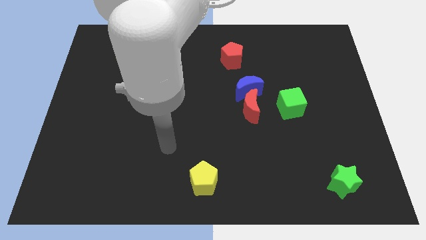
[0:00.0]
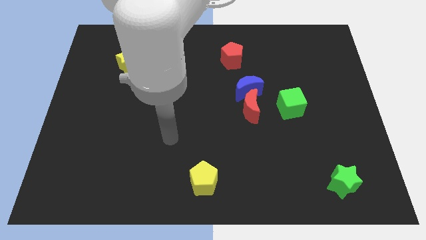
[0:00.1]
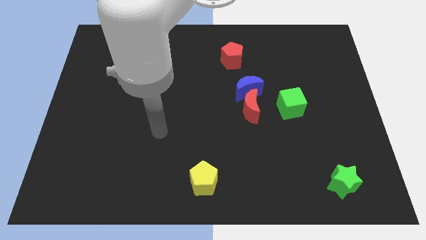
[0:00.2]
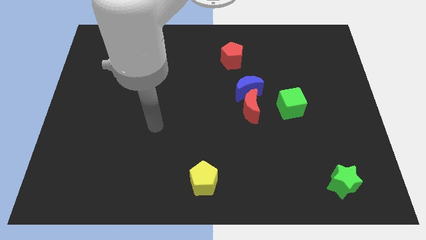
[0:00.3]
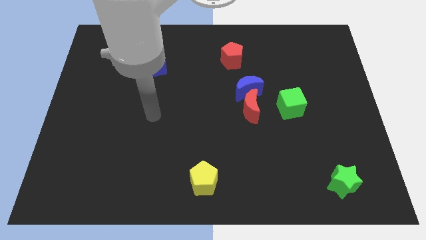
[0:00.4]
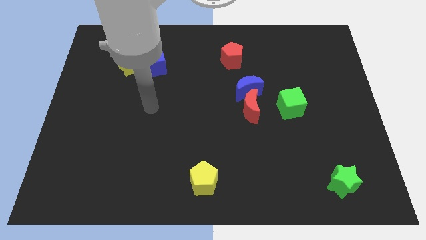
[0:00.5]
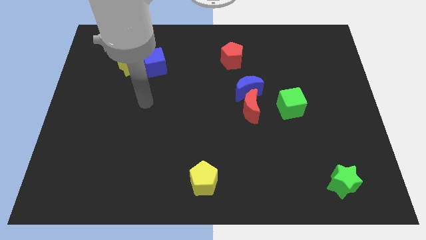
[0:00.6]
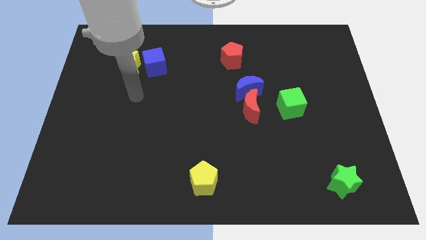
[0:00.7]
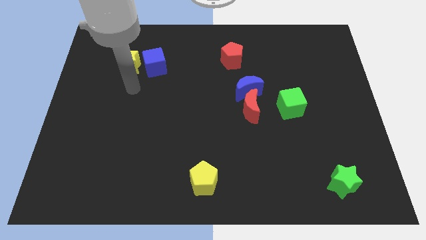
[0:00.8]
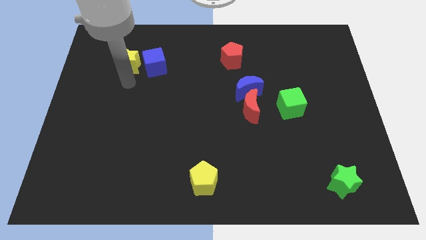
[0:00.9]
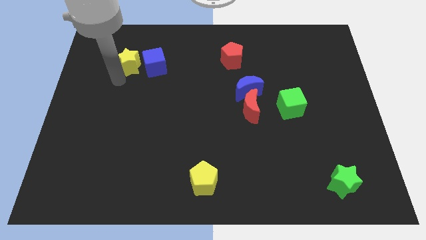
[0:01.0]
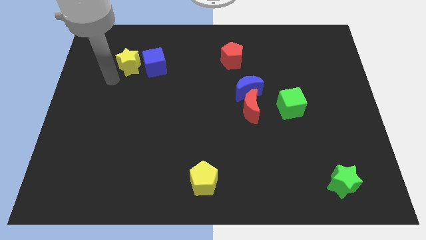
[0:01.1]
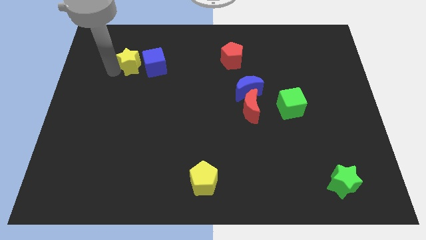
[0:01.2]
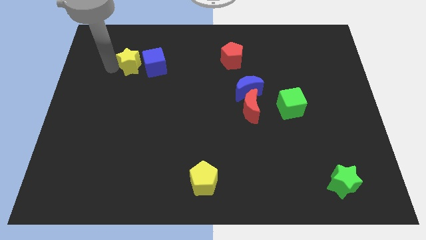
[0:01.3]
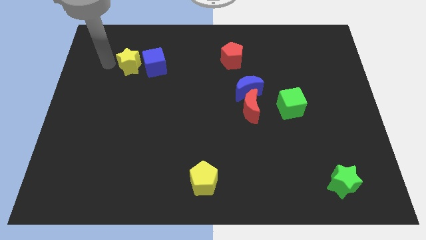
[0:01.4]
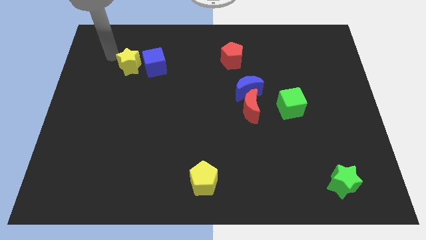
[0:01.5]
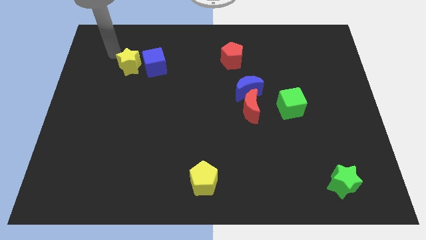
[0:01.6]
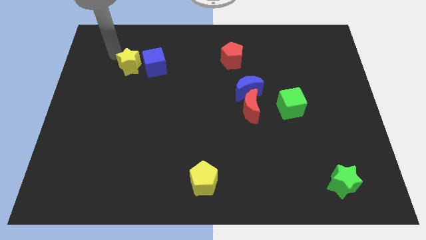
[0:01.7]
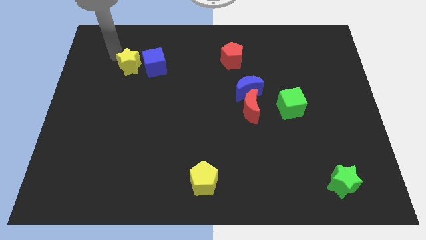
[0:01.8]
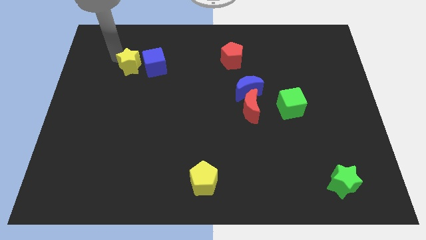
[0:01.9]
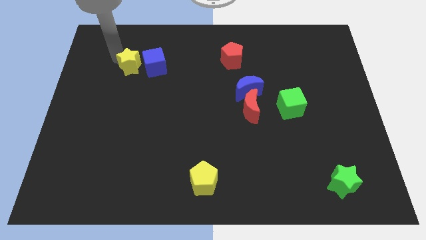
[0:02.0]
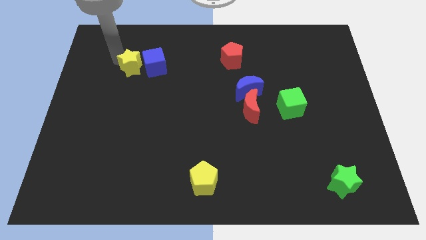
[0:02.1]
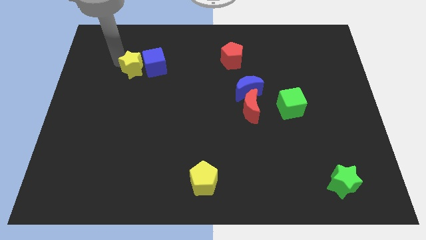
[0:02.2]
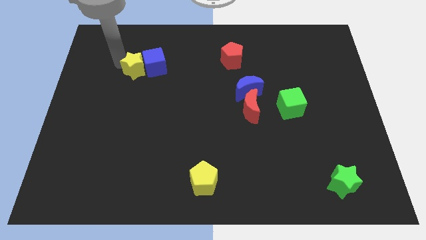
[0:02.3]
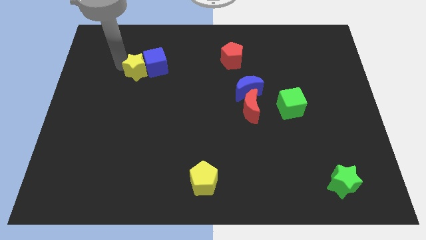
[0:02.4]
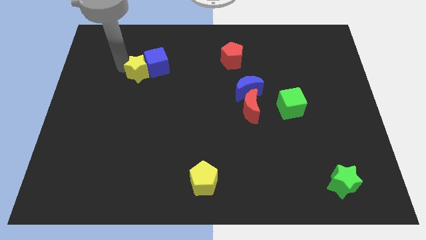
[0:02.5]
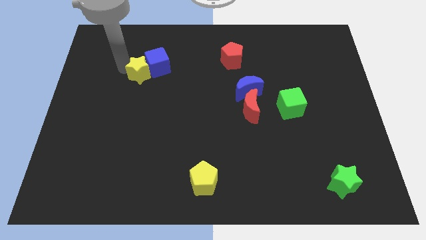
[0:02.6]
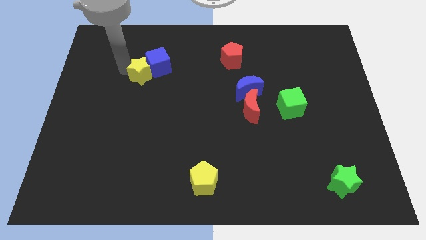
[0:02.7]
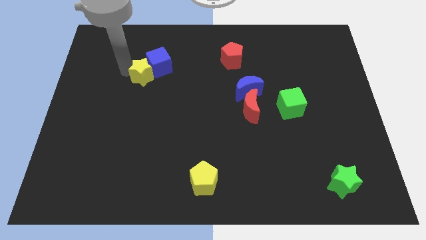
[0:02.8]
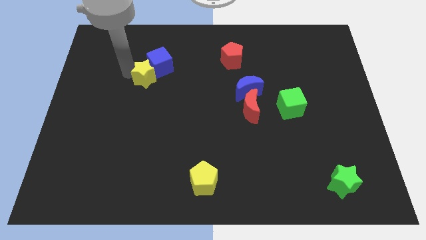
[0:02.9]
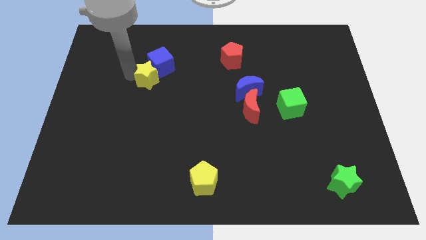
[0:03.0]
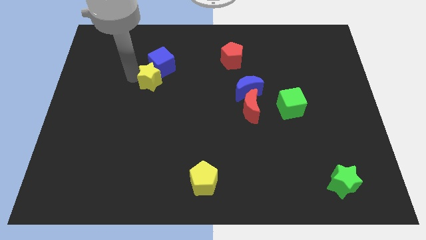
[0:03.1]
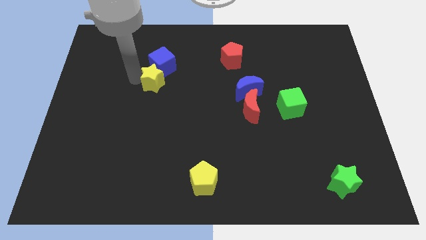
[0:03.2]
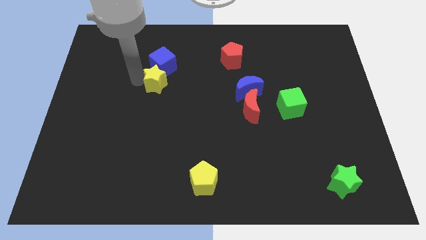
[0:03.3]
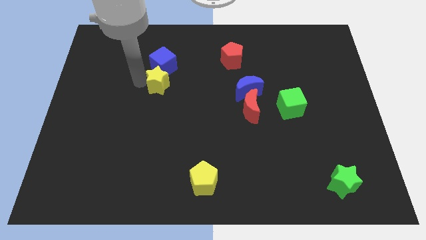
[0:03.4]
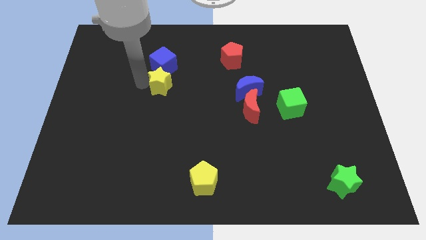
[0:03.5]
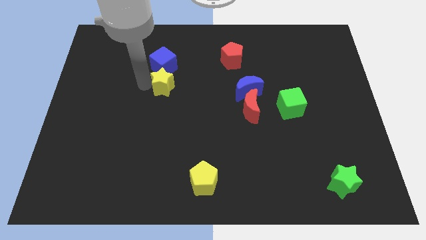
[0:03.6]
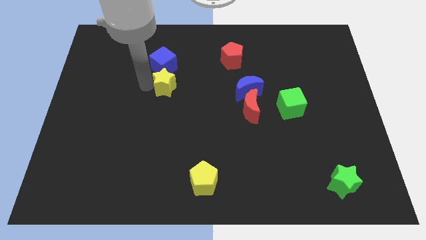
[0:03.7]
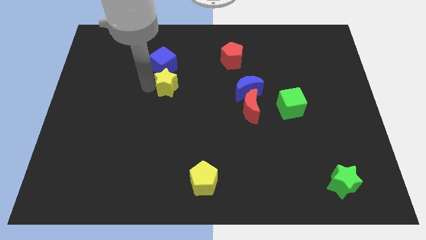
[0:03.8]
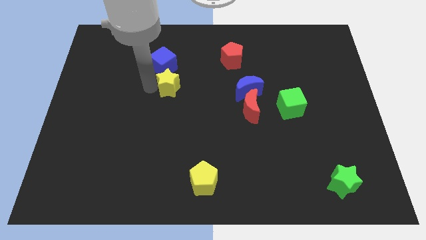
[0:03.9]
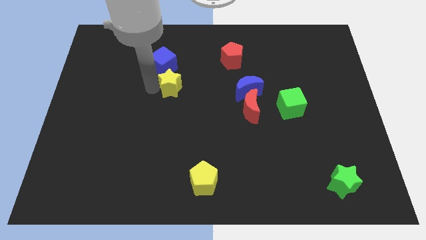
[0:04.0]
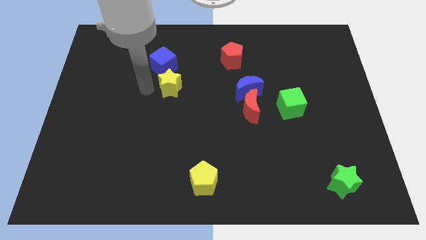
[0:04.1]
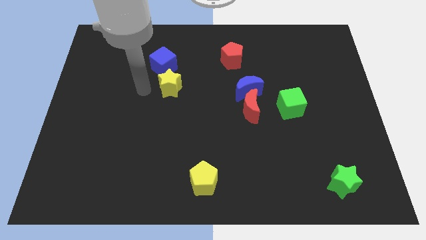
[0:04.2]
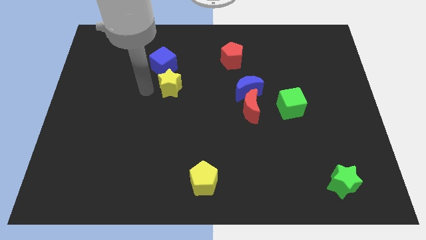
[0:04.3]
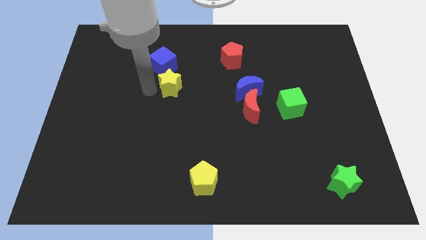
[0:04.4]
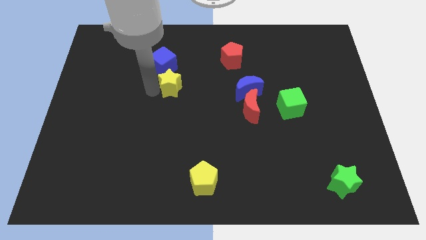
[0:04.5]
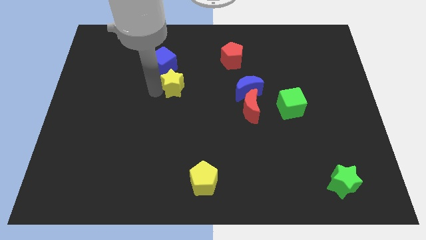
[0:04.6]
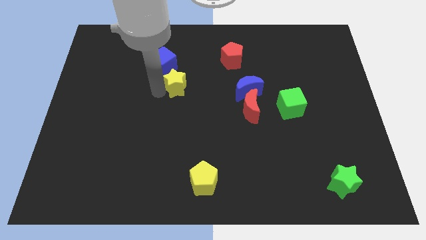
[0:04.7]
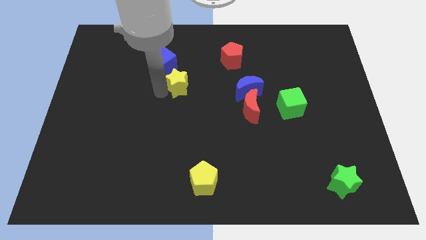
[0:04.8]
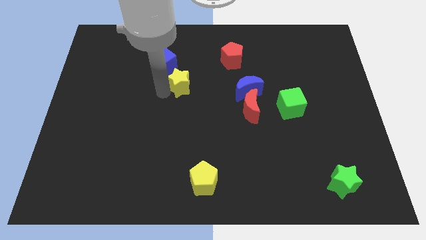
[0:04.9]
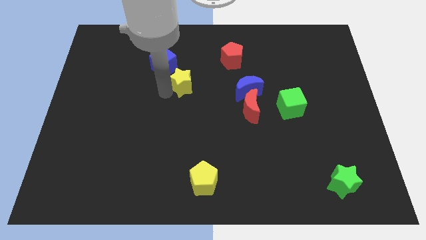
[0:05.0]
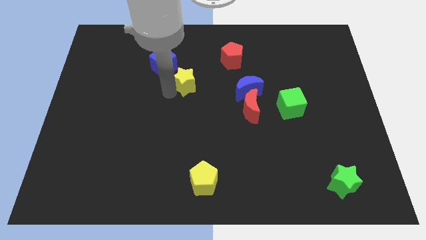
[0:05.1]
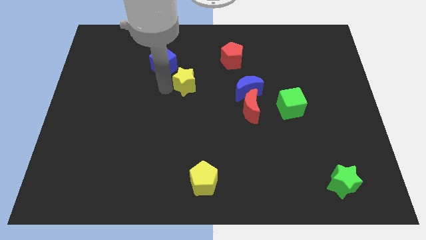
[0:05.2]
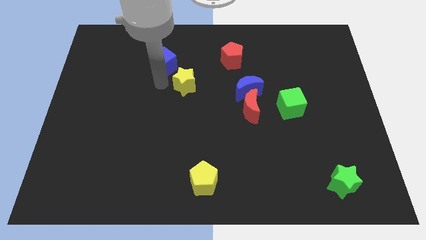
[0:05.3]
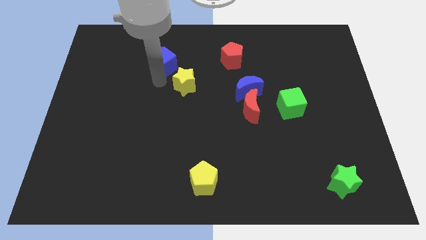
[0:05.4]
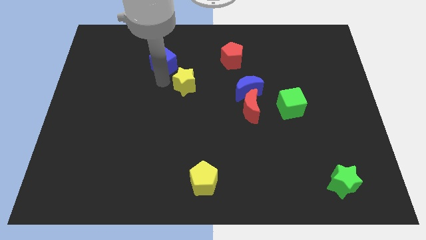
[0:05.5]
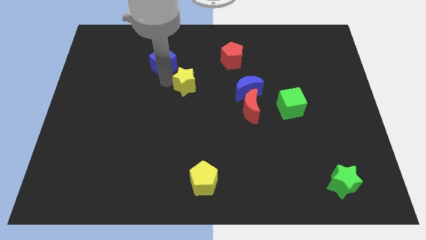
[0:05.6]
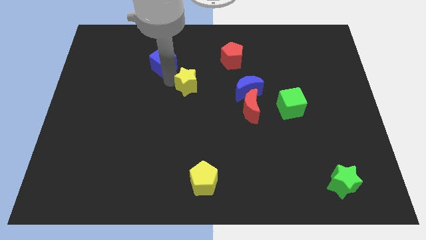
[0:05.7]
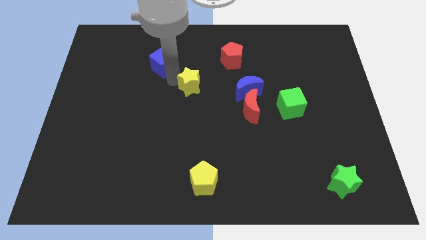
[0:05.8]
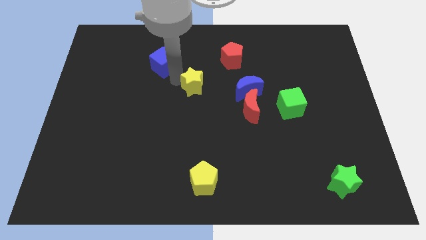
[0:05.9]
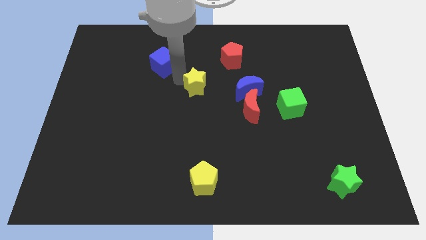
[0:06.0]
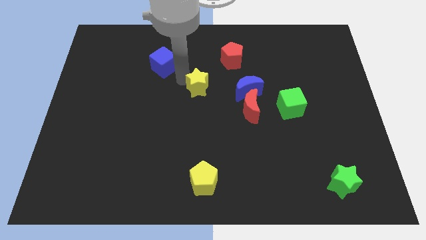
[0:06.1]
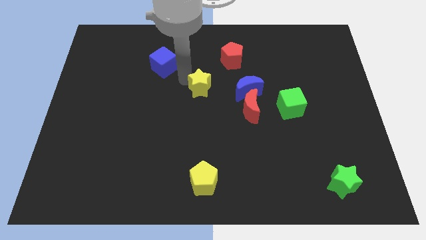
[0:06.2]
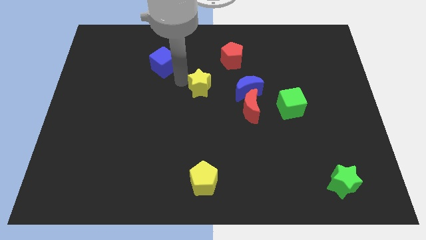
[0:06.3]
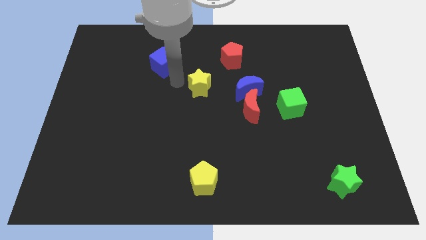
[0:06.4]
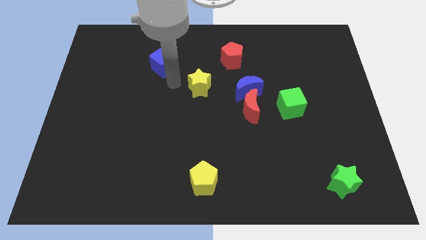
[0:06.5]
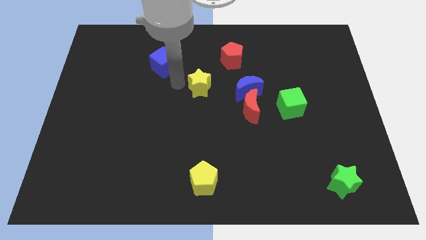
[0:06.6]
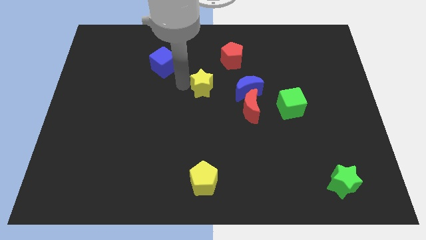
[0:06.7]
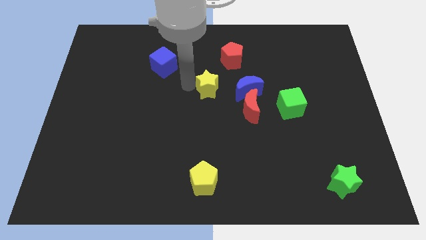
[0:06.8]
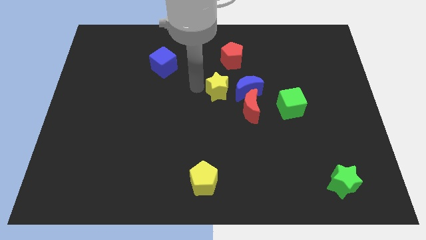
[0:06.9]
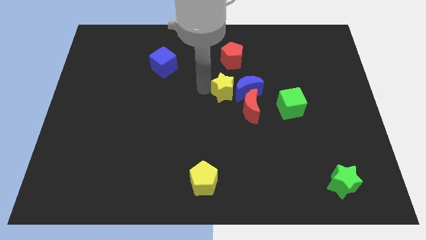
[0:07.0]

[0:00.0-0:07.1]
move the yellow star next to the blue moon
